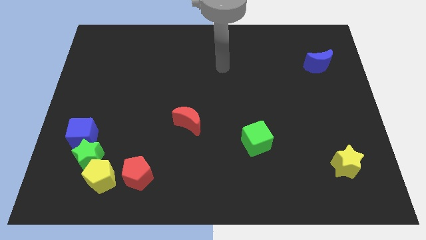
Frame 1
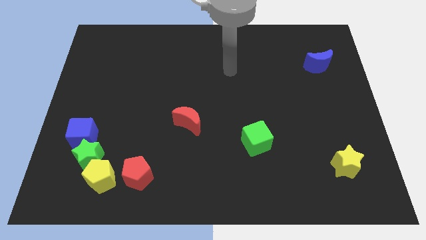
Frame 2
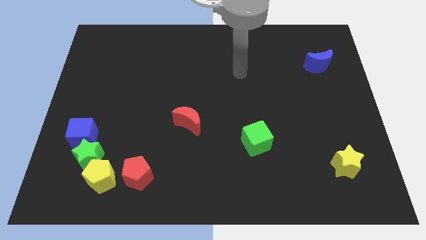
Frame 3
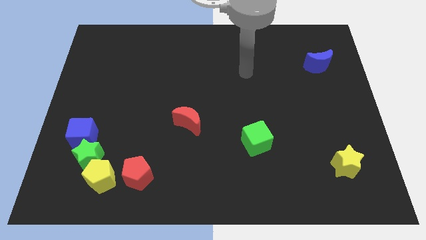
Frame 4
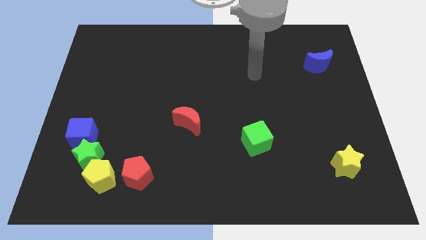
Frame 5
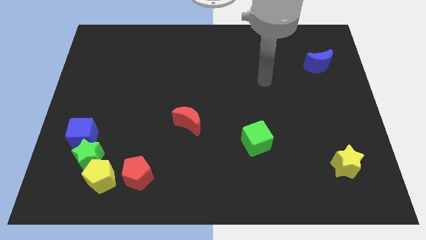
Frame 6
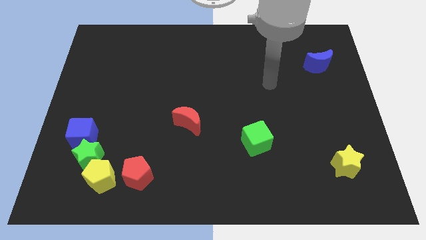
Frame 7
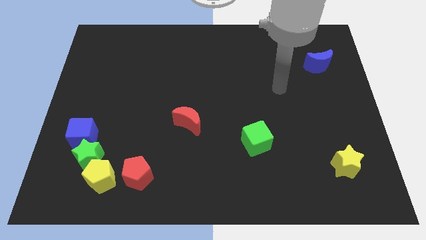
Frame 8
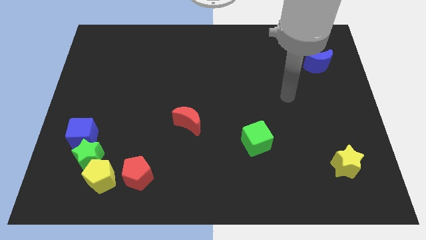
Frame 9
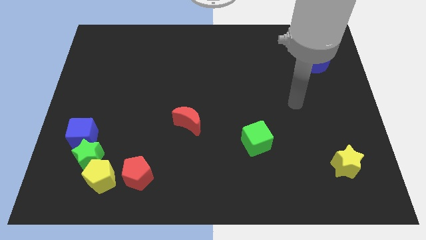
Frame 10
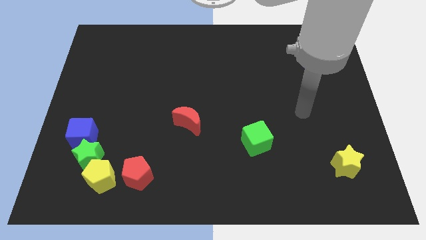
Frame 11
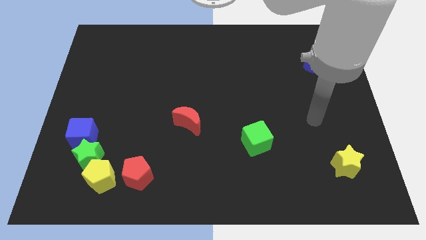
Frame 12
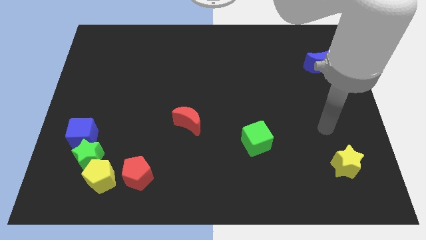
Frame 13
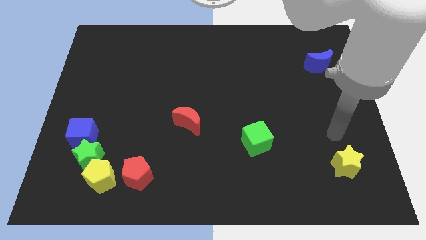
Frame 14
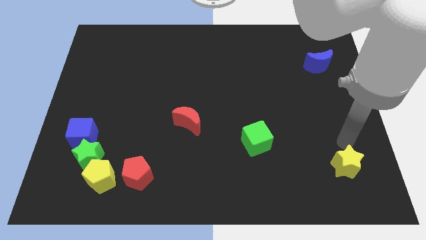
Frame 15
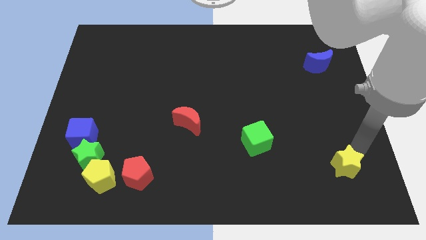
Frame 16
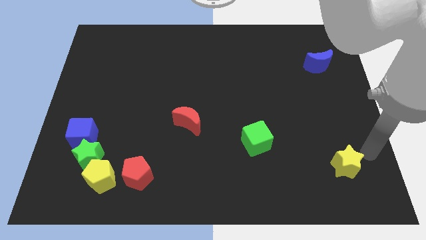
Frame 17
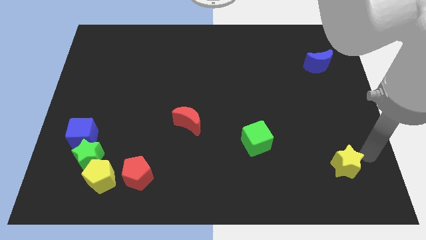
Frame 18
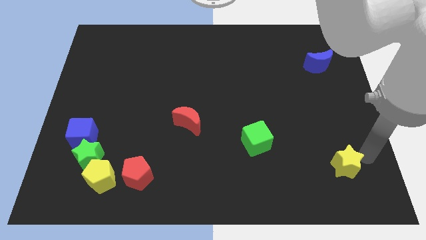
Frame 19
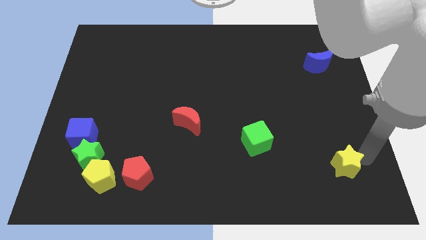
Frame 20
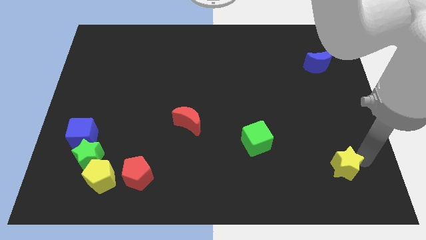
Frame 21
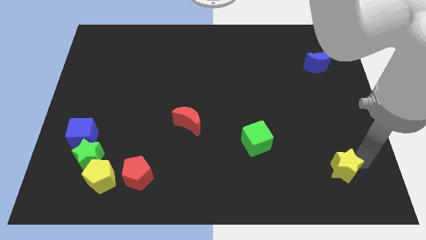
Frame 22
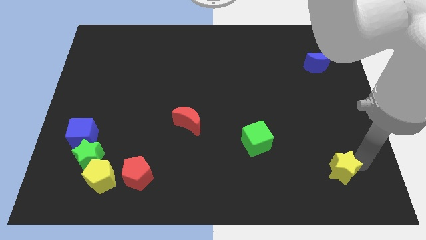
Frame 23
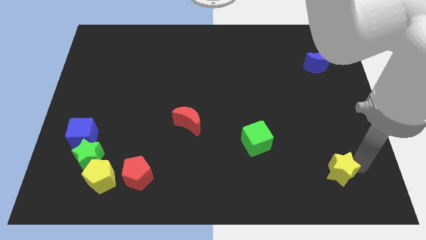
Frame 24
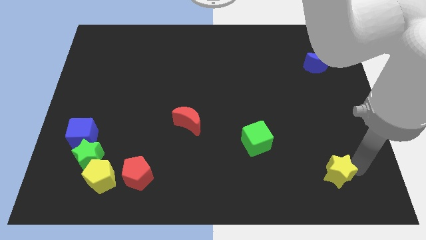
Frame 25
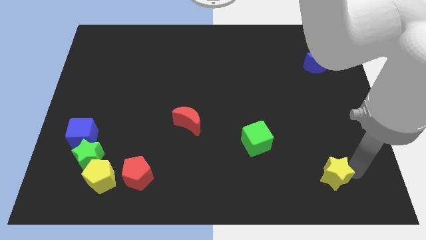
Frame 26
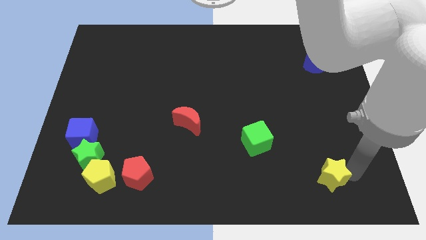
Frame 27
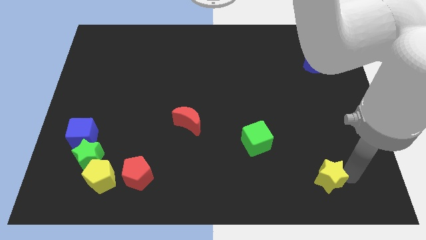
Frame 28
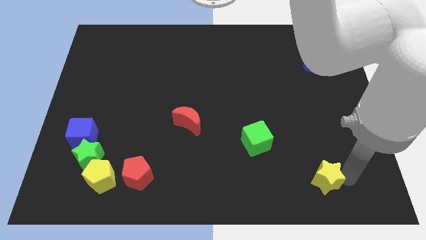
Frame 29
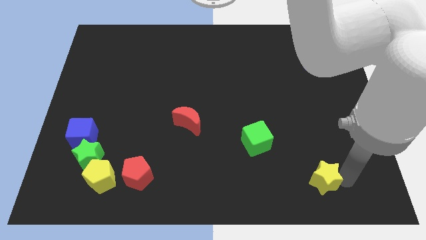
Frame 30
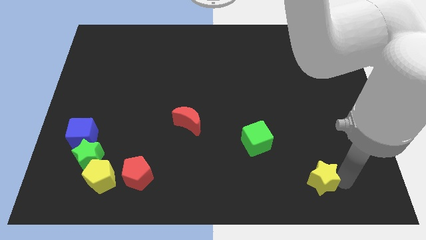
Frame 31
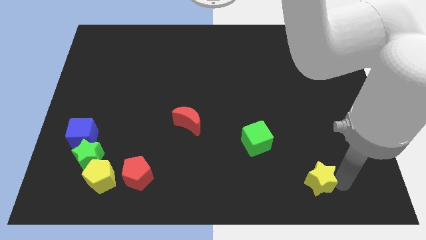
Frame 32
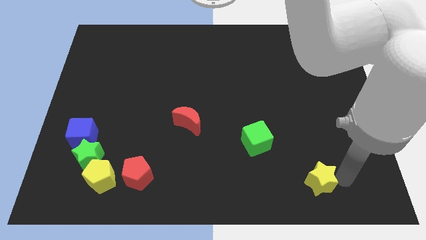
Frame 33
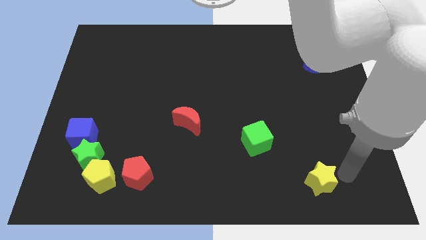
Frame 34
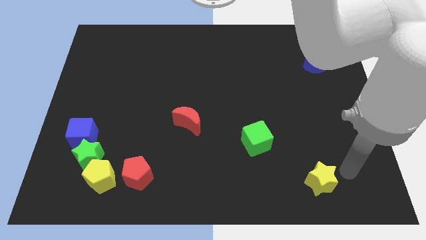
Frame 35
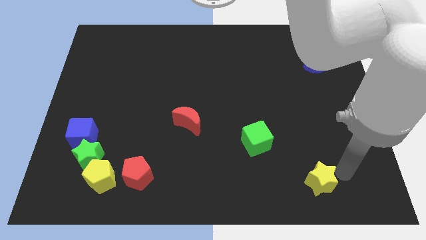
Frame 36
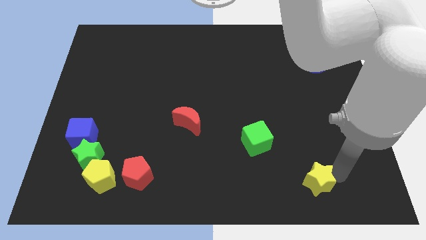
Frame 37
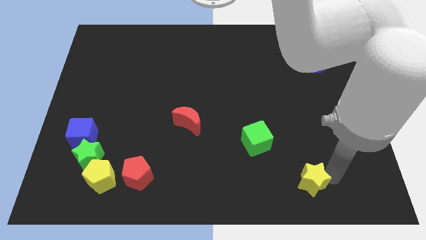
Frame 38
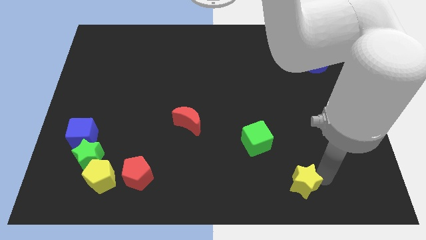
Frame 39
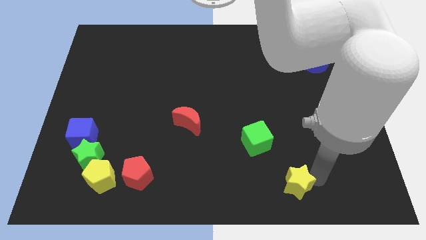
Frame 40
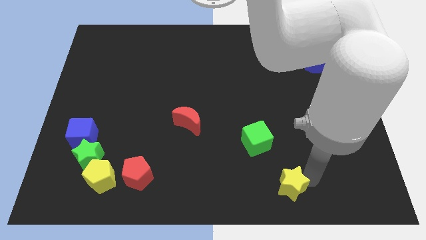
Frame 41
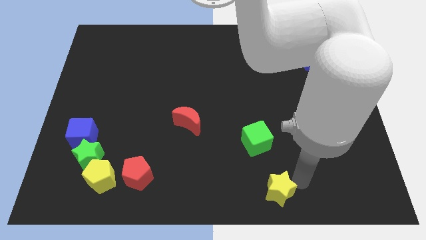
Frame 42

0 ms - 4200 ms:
push the yellow star to the bottom side

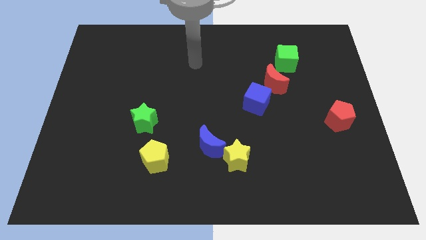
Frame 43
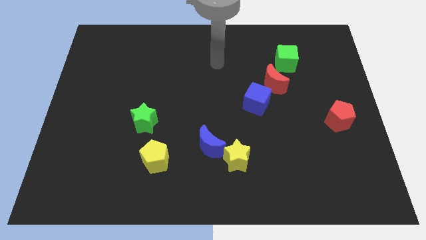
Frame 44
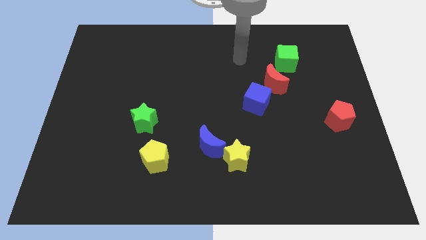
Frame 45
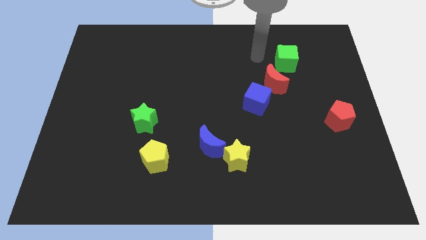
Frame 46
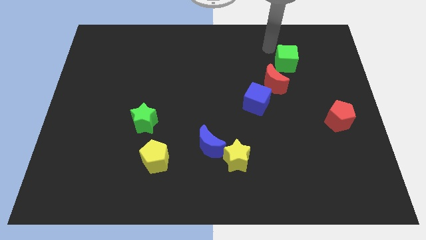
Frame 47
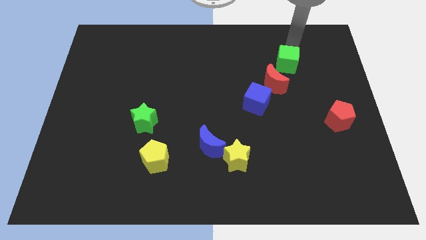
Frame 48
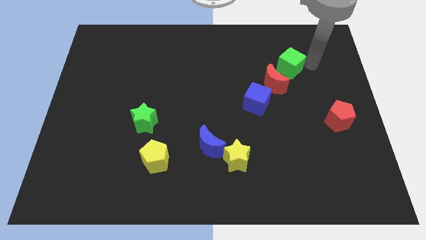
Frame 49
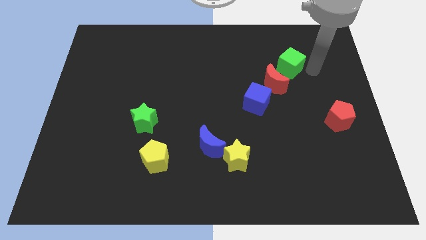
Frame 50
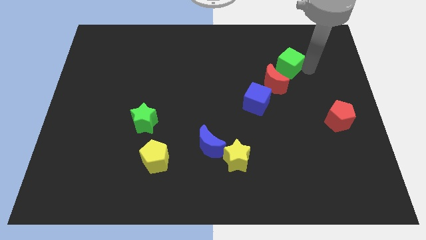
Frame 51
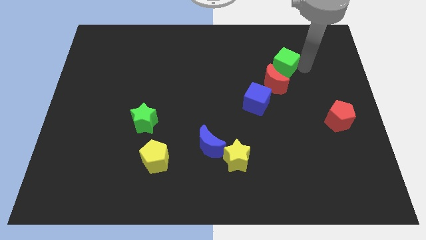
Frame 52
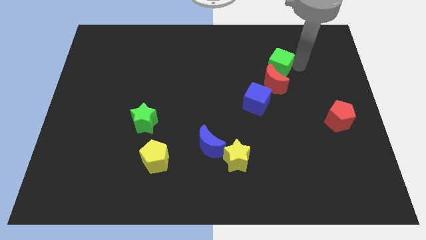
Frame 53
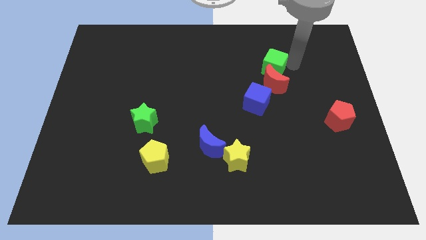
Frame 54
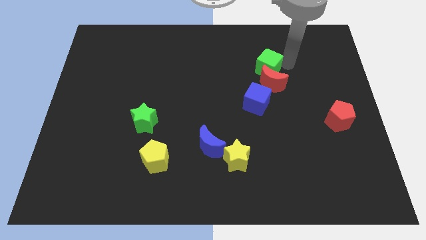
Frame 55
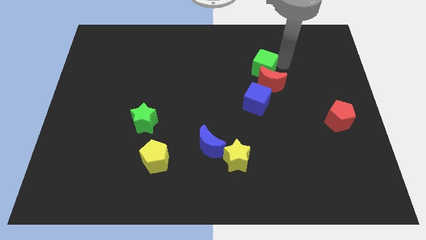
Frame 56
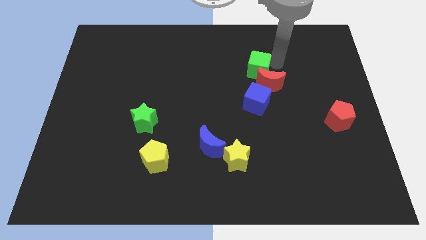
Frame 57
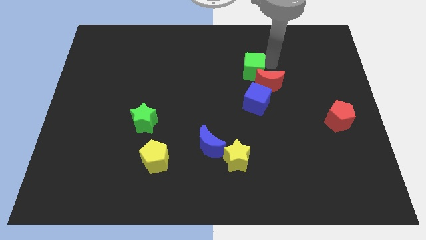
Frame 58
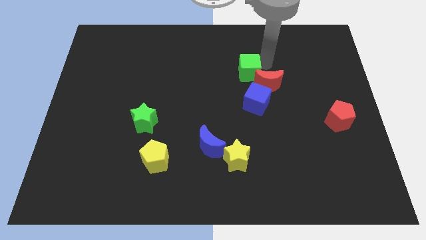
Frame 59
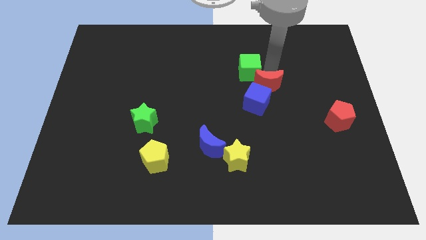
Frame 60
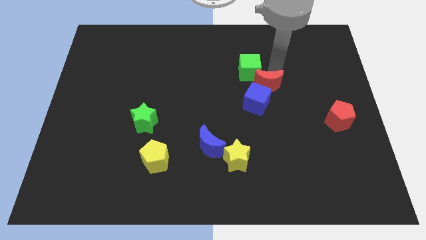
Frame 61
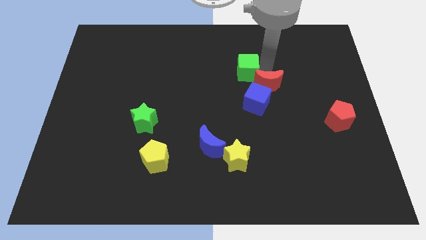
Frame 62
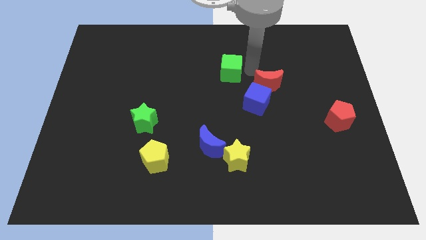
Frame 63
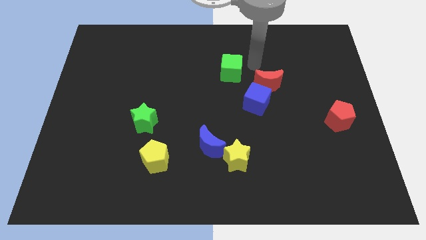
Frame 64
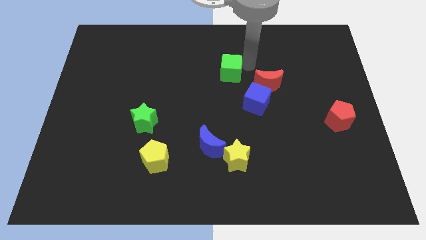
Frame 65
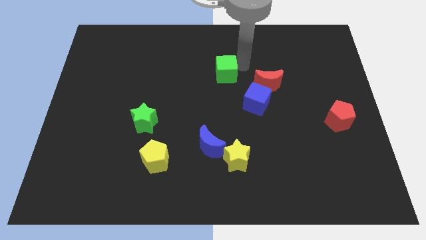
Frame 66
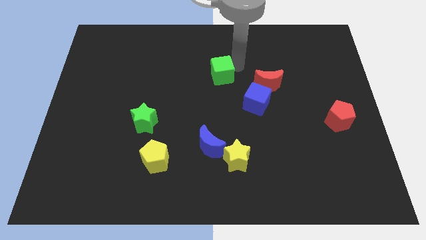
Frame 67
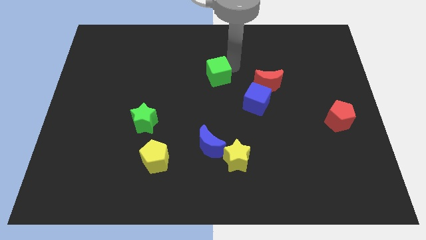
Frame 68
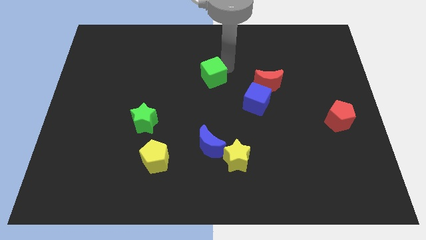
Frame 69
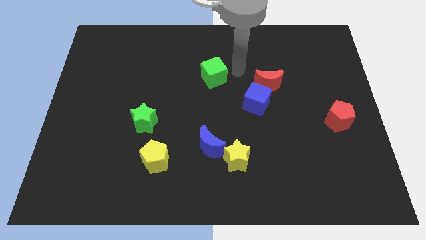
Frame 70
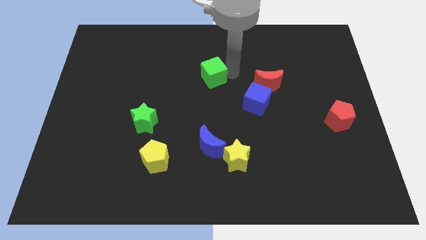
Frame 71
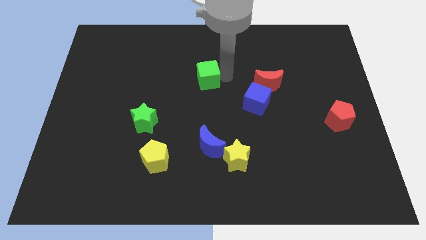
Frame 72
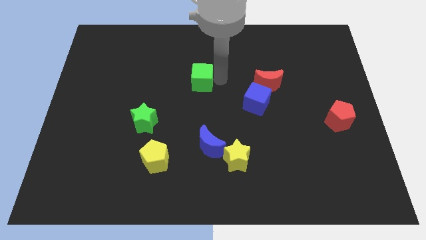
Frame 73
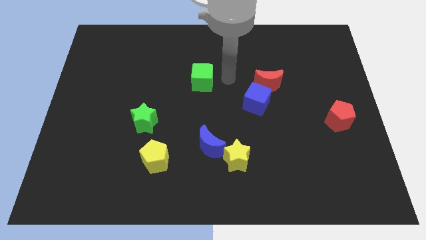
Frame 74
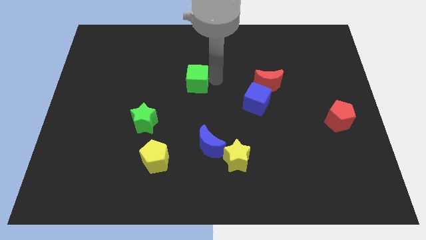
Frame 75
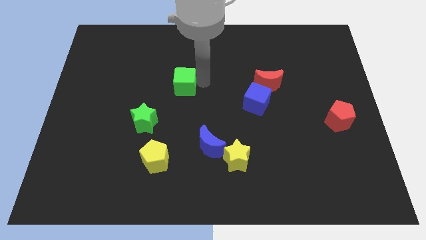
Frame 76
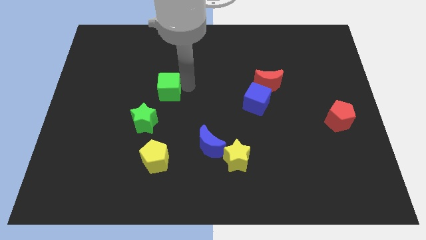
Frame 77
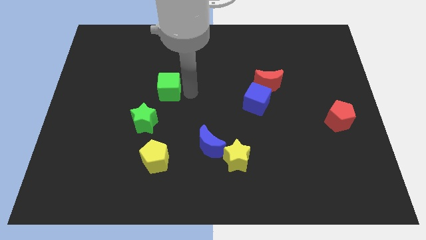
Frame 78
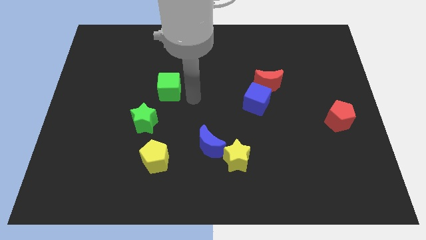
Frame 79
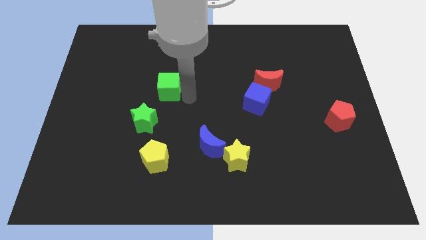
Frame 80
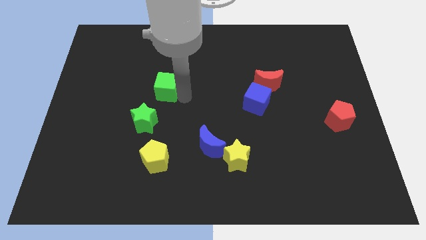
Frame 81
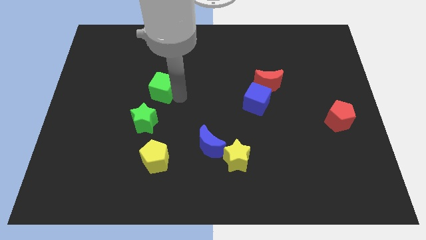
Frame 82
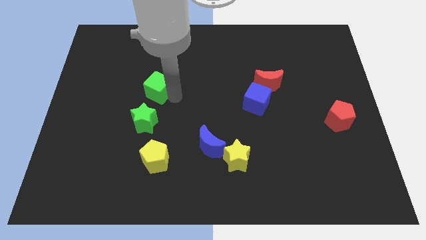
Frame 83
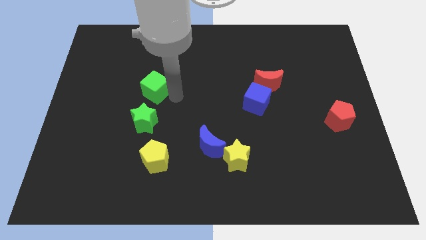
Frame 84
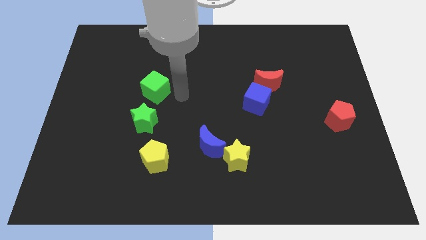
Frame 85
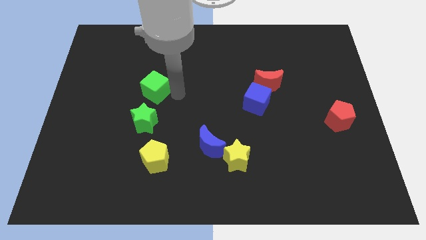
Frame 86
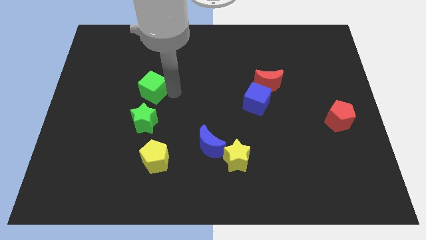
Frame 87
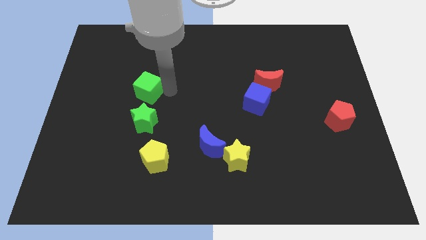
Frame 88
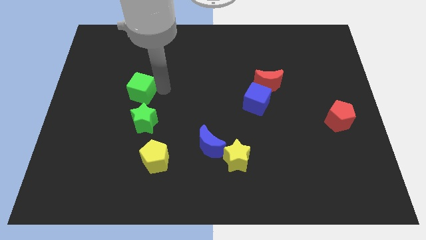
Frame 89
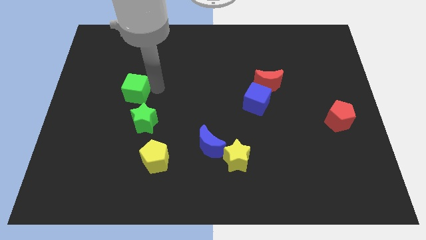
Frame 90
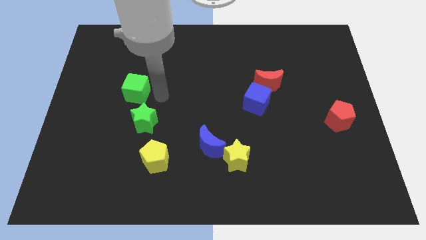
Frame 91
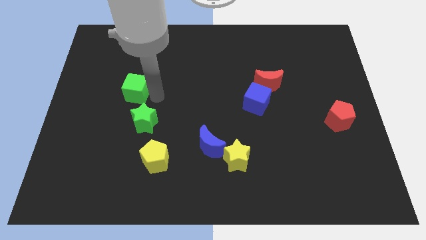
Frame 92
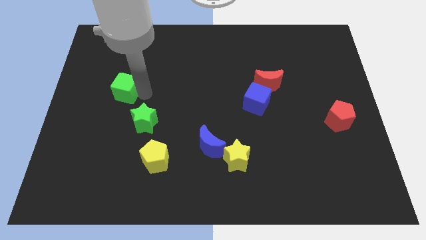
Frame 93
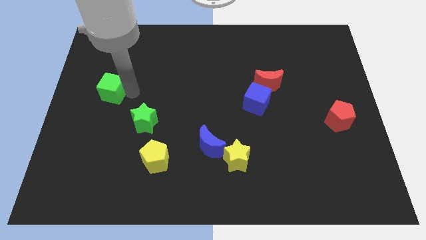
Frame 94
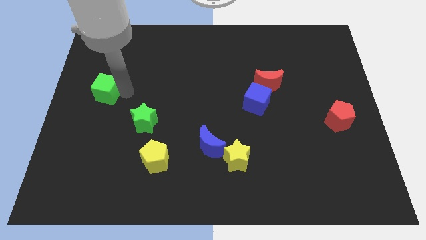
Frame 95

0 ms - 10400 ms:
slide the green cube to the center left
